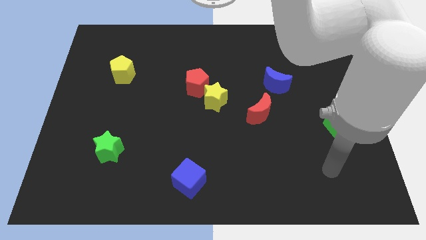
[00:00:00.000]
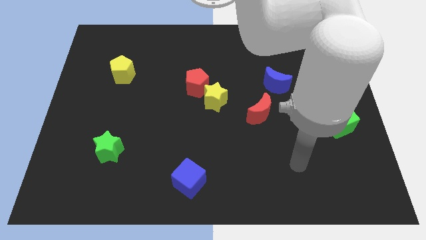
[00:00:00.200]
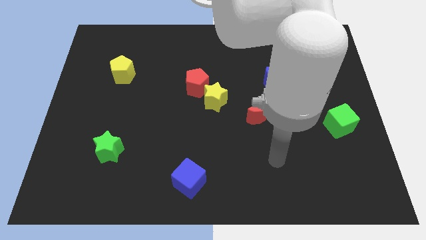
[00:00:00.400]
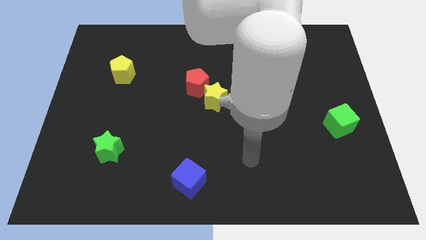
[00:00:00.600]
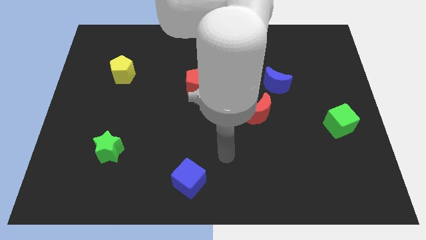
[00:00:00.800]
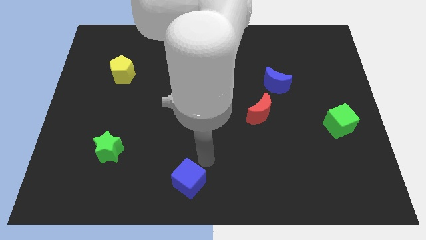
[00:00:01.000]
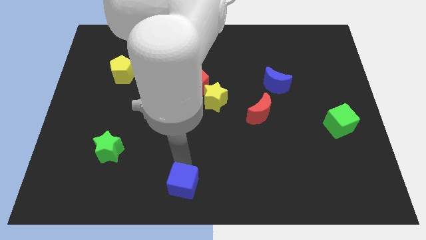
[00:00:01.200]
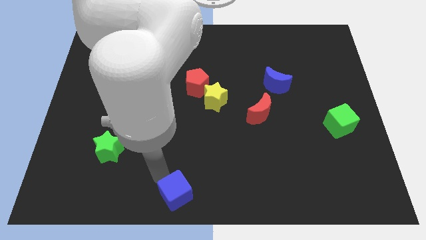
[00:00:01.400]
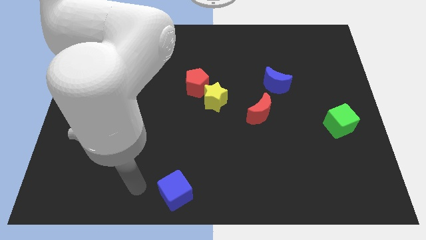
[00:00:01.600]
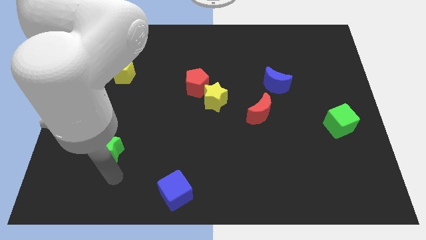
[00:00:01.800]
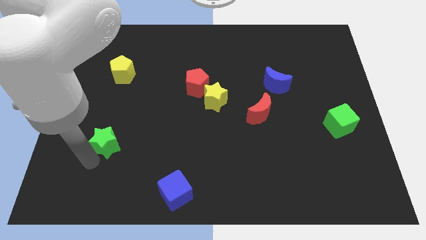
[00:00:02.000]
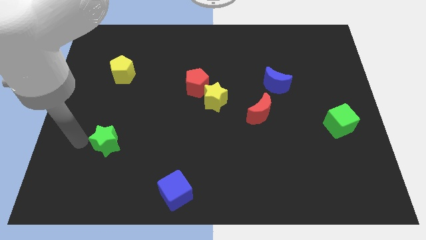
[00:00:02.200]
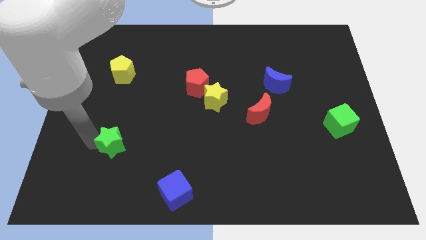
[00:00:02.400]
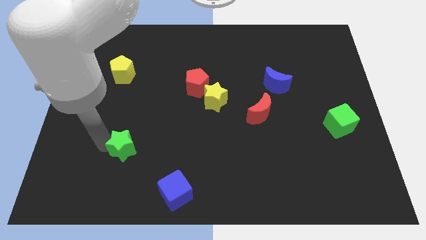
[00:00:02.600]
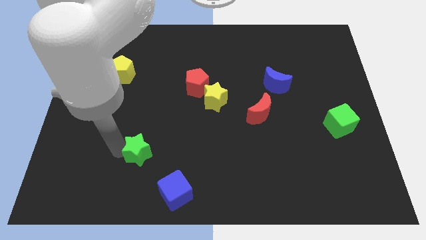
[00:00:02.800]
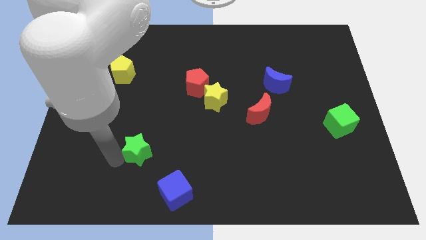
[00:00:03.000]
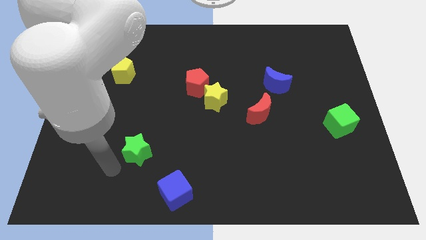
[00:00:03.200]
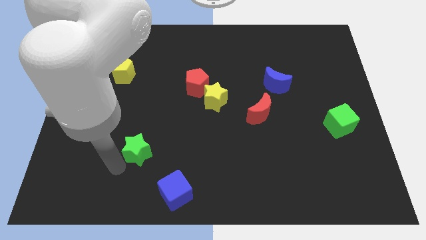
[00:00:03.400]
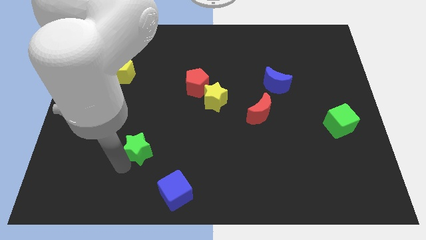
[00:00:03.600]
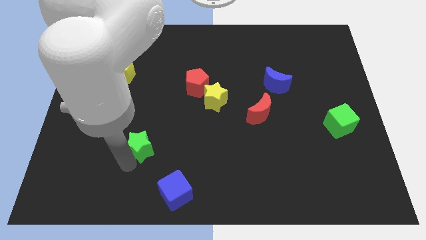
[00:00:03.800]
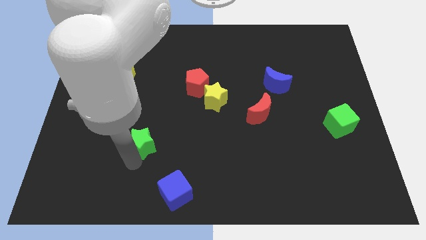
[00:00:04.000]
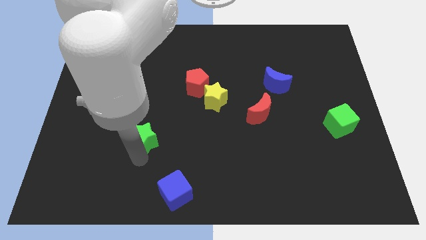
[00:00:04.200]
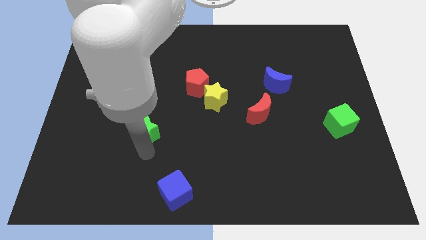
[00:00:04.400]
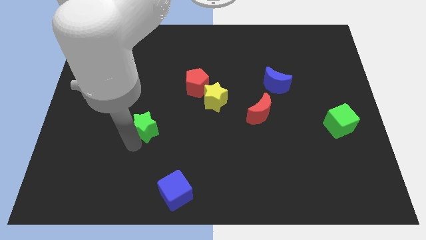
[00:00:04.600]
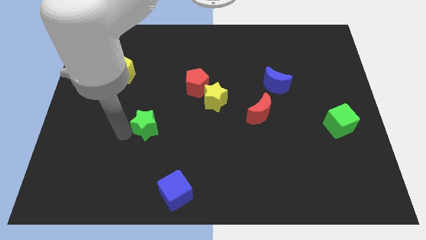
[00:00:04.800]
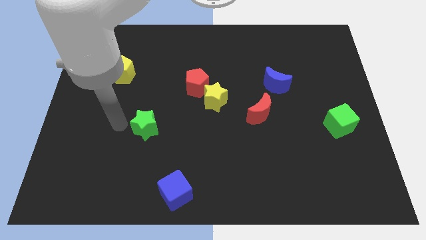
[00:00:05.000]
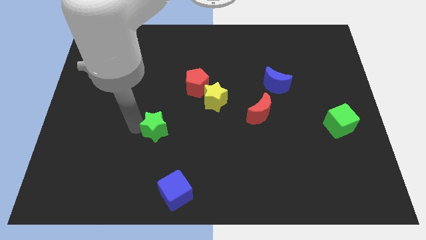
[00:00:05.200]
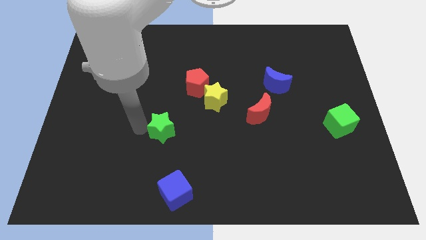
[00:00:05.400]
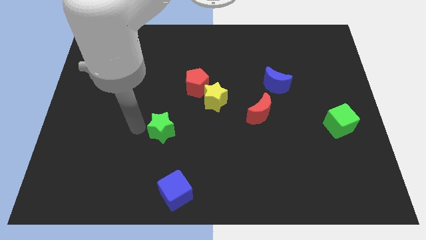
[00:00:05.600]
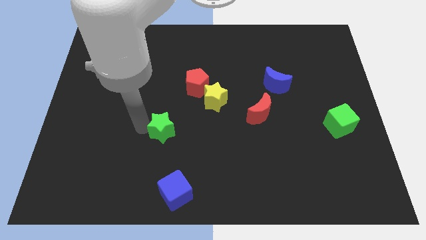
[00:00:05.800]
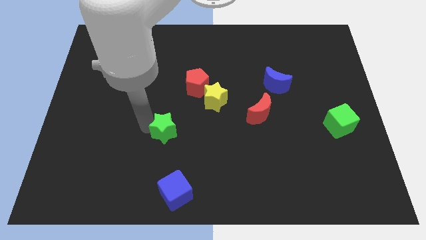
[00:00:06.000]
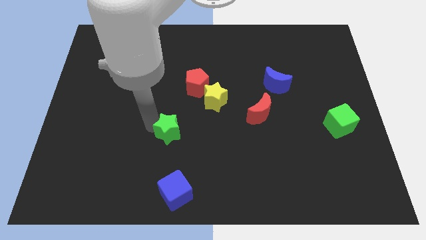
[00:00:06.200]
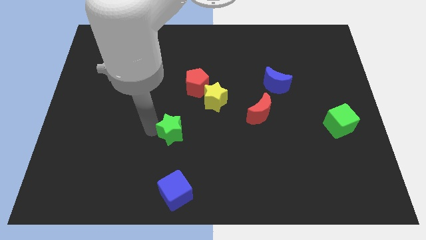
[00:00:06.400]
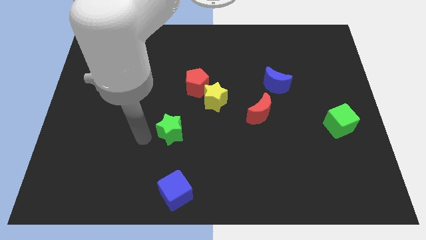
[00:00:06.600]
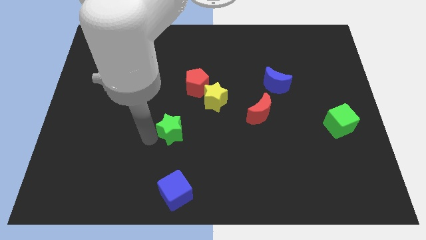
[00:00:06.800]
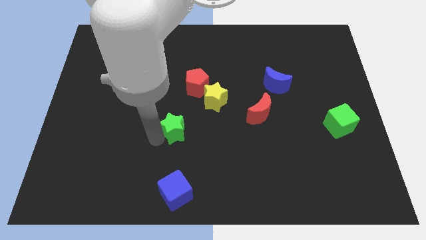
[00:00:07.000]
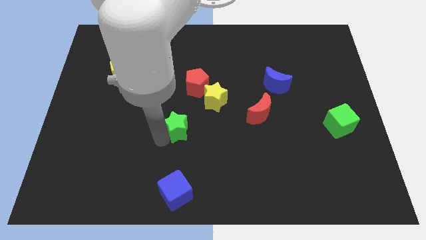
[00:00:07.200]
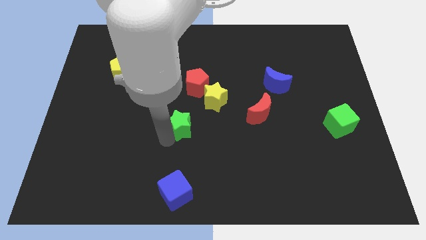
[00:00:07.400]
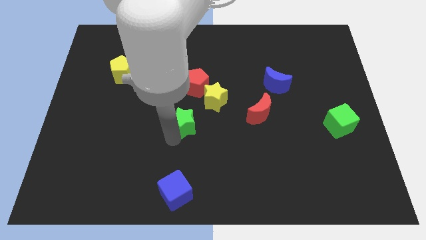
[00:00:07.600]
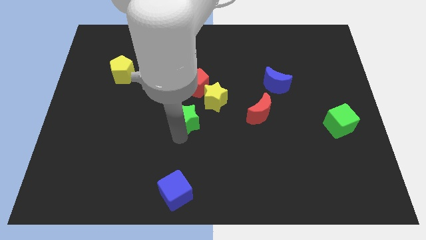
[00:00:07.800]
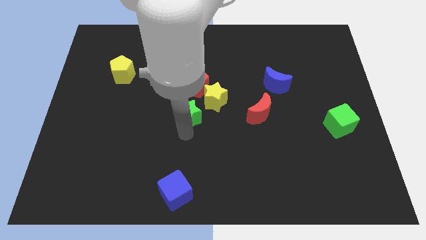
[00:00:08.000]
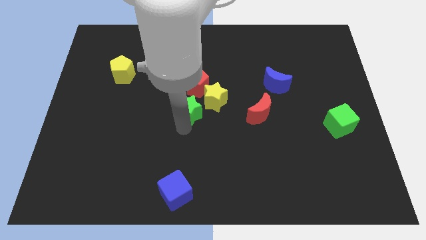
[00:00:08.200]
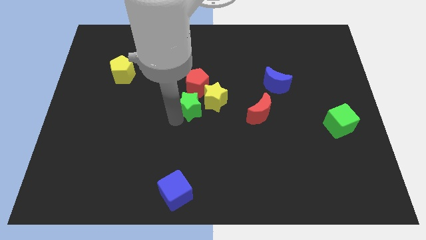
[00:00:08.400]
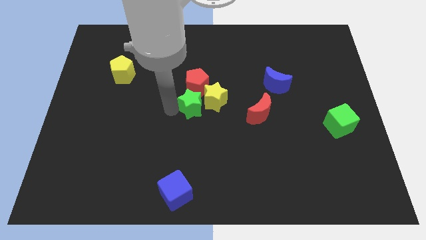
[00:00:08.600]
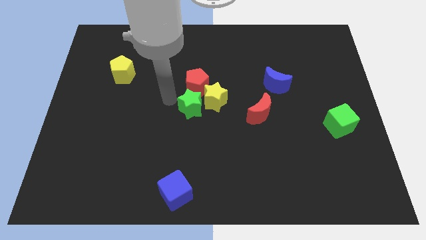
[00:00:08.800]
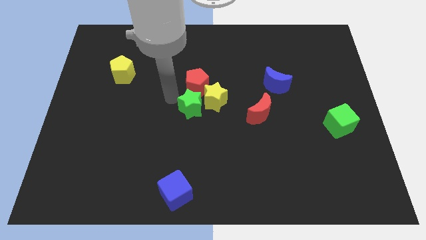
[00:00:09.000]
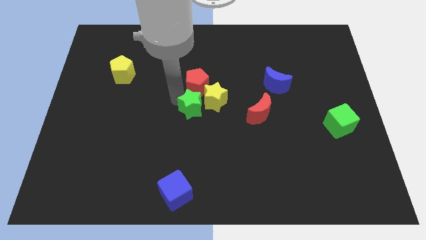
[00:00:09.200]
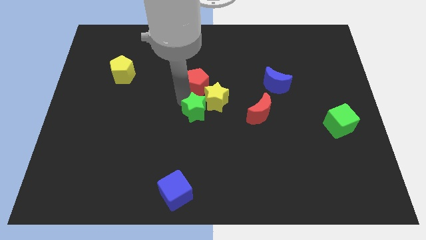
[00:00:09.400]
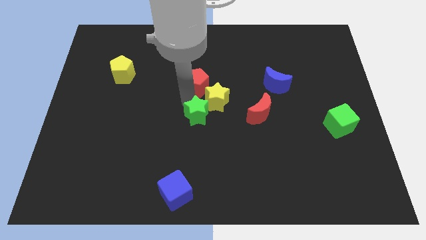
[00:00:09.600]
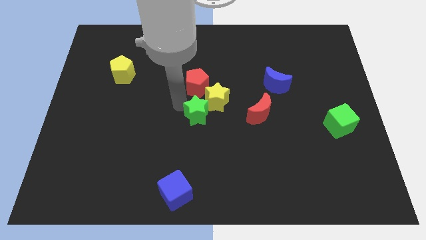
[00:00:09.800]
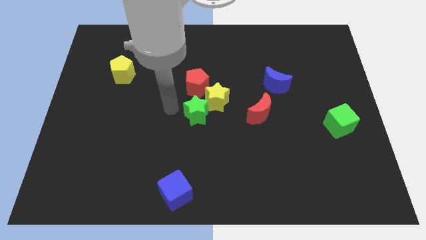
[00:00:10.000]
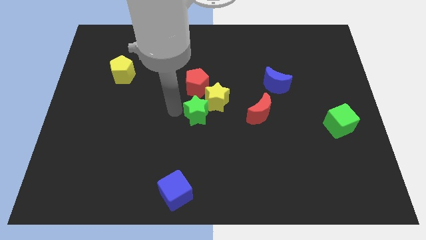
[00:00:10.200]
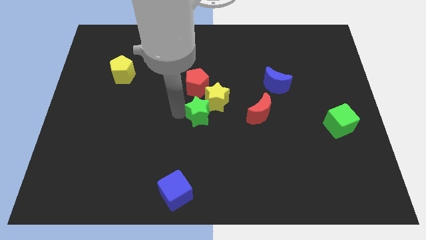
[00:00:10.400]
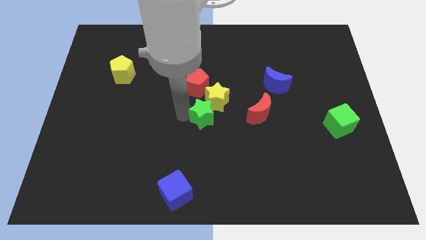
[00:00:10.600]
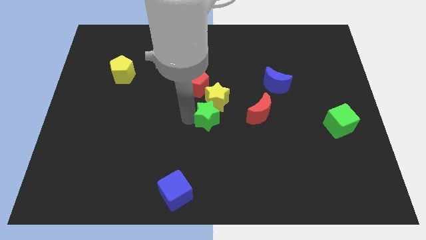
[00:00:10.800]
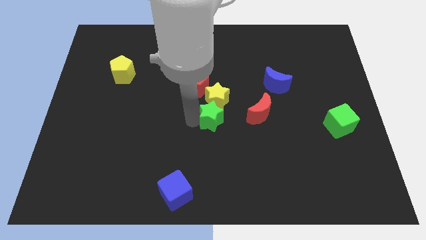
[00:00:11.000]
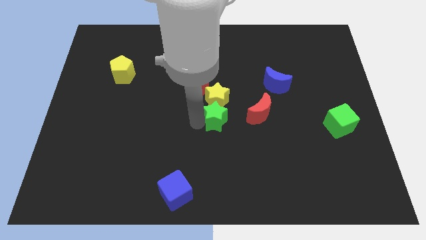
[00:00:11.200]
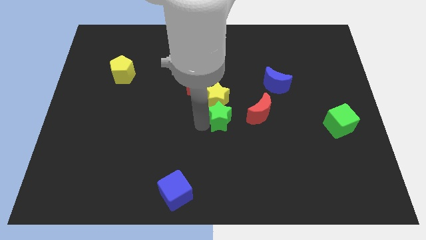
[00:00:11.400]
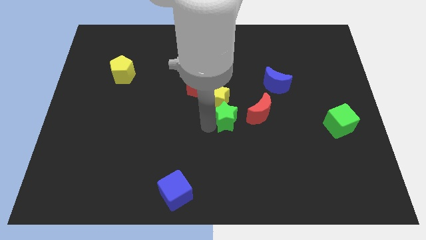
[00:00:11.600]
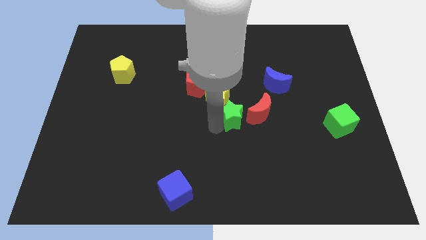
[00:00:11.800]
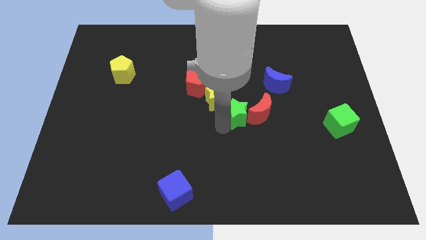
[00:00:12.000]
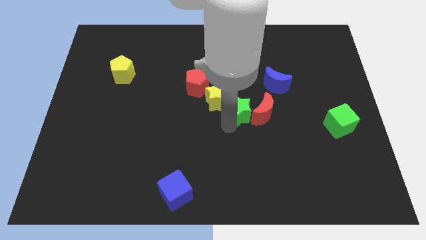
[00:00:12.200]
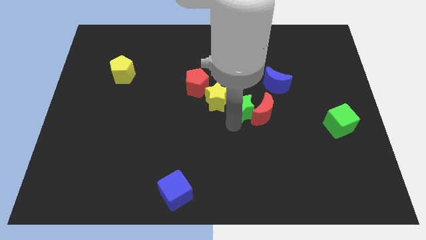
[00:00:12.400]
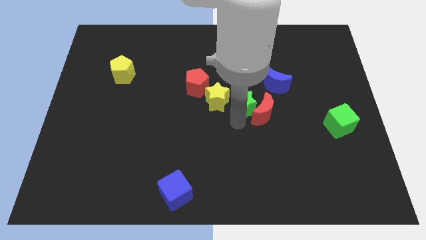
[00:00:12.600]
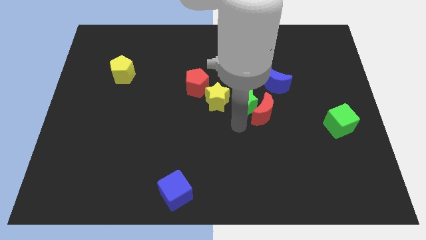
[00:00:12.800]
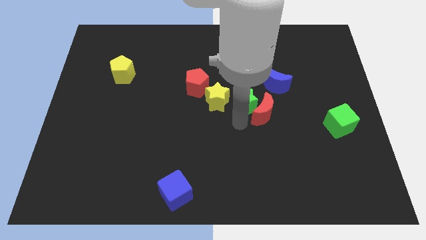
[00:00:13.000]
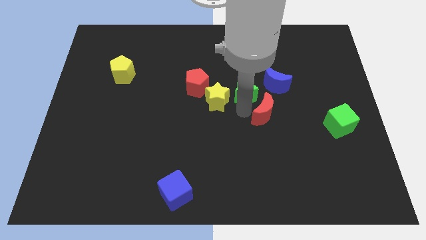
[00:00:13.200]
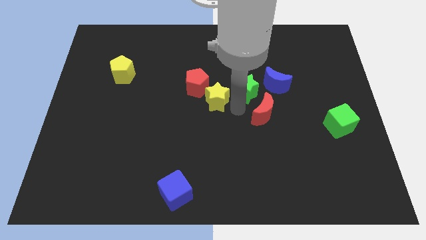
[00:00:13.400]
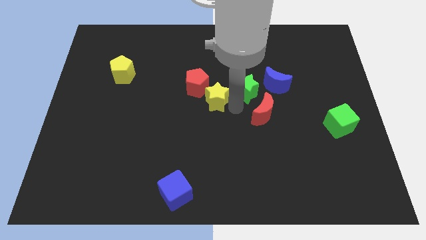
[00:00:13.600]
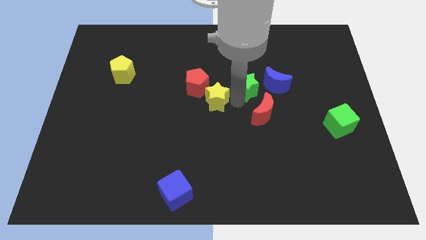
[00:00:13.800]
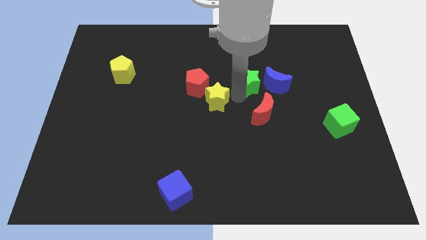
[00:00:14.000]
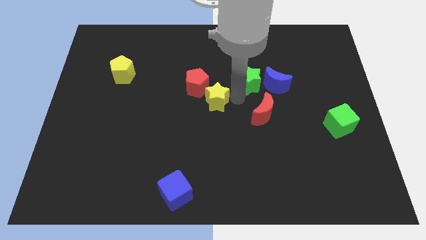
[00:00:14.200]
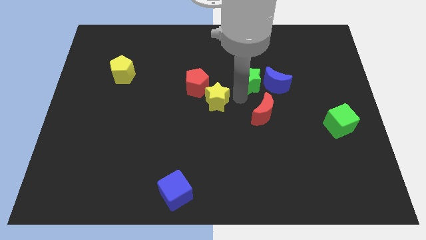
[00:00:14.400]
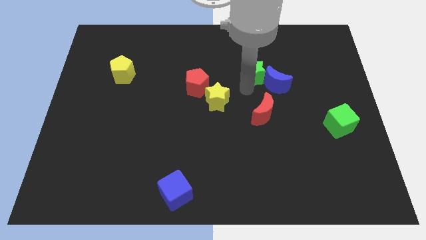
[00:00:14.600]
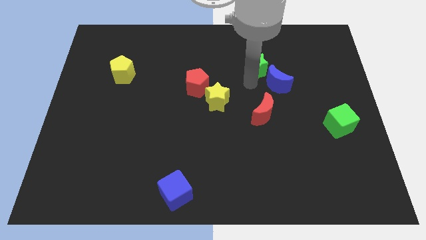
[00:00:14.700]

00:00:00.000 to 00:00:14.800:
push the green star to the top side of the blue moon
